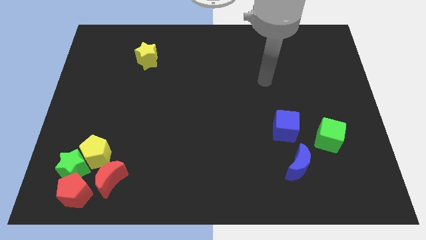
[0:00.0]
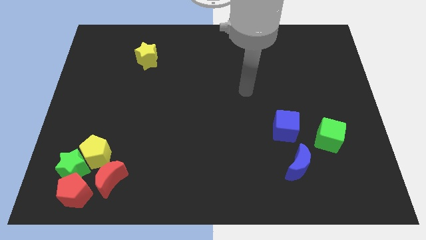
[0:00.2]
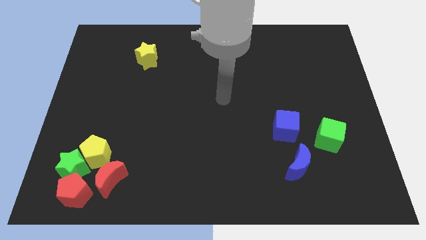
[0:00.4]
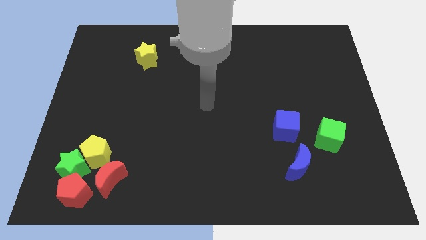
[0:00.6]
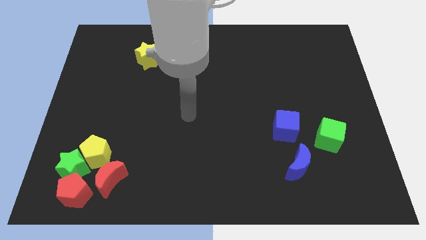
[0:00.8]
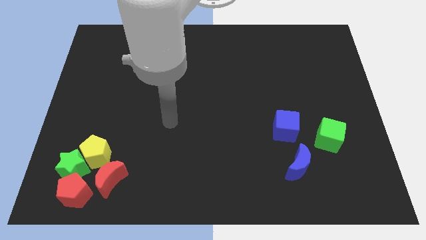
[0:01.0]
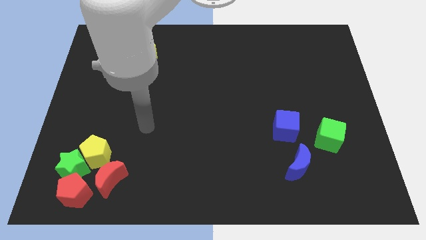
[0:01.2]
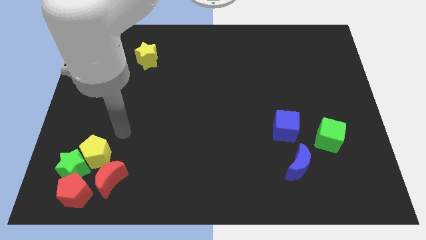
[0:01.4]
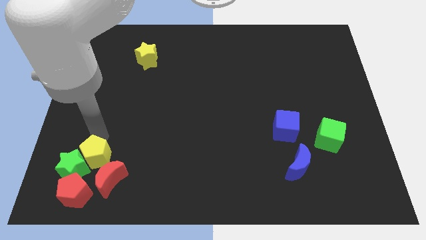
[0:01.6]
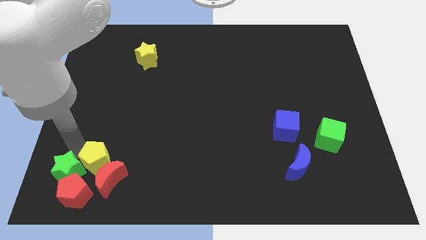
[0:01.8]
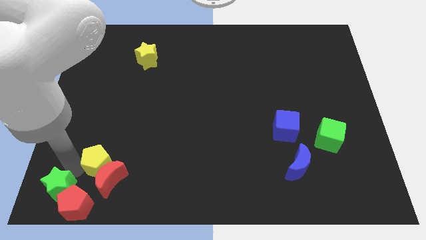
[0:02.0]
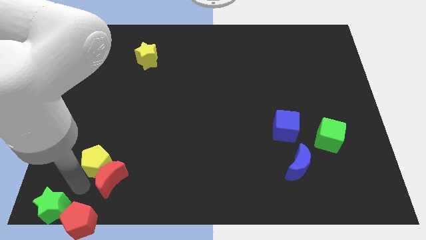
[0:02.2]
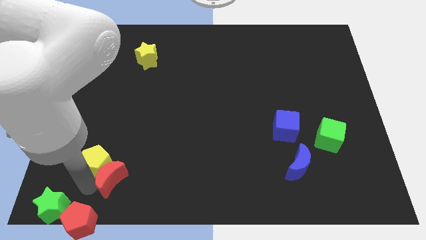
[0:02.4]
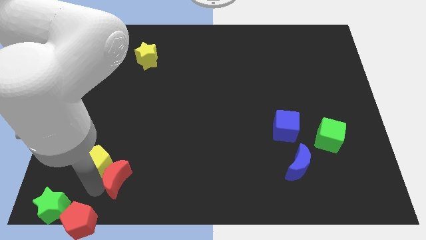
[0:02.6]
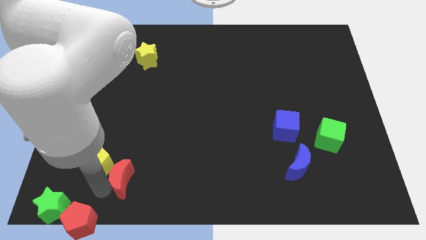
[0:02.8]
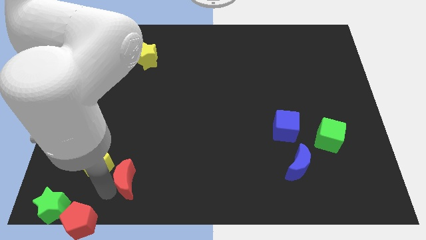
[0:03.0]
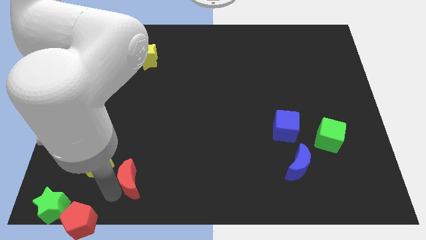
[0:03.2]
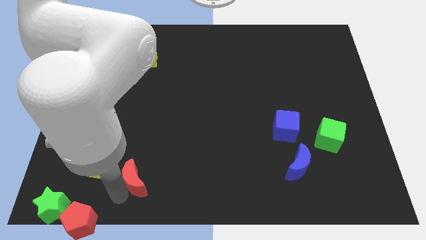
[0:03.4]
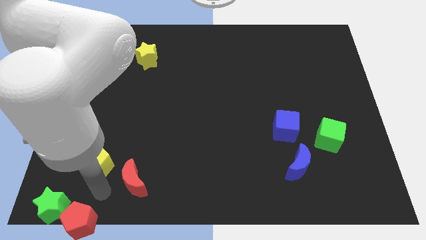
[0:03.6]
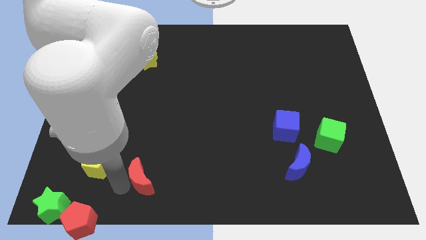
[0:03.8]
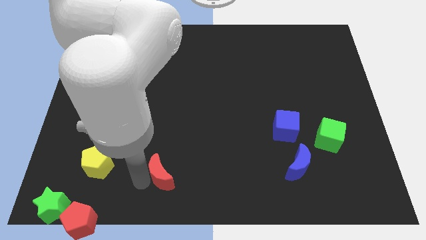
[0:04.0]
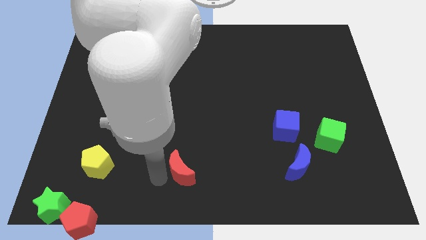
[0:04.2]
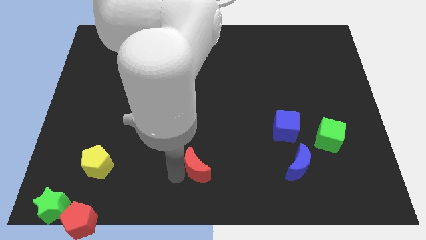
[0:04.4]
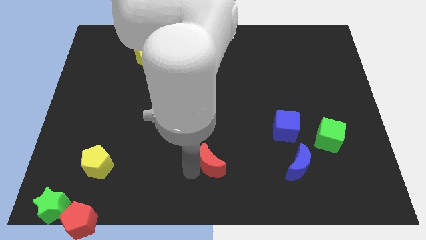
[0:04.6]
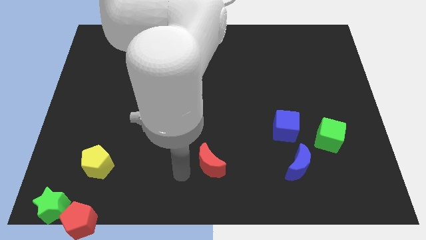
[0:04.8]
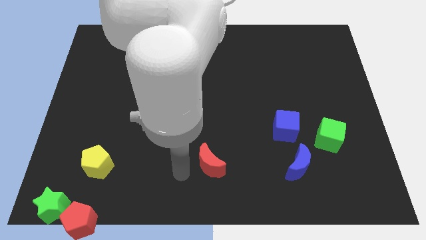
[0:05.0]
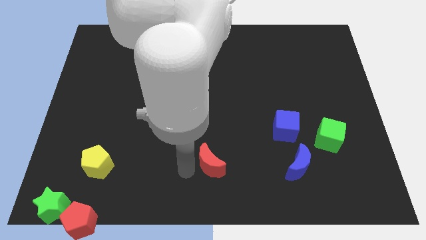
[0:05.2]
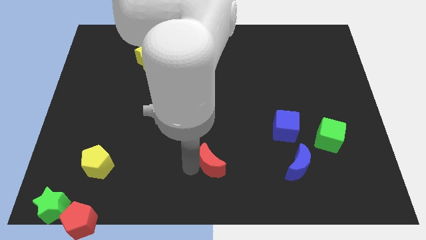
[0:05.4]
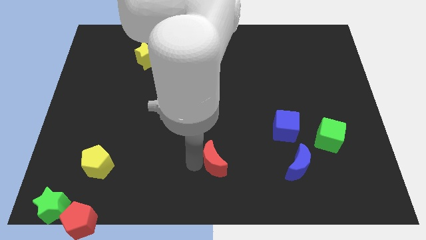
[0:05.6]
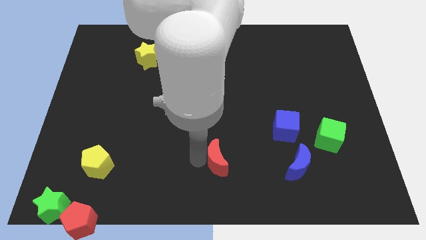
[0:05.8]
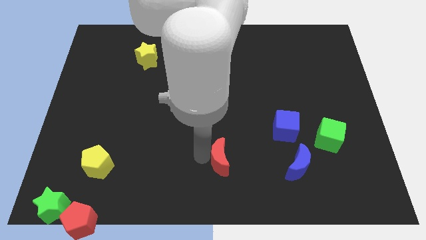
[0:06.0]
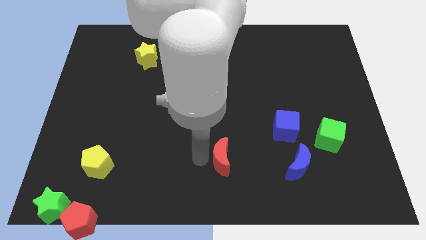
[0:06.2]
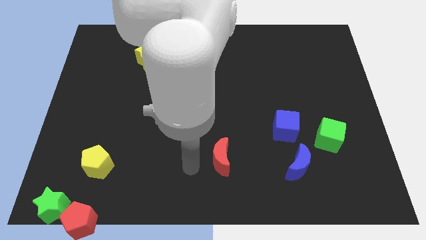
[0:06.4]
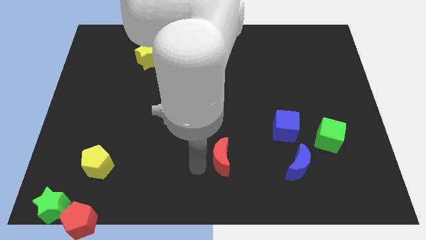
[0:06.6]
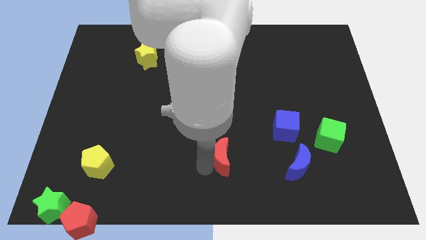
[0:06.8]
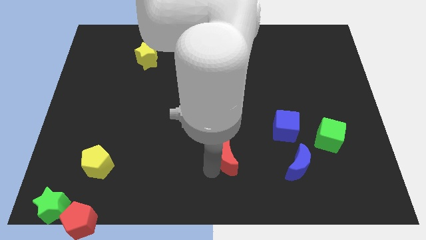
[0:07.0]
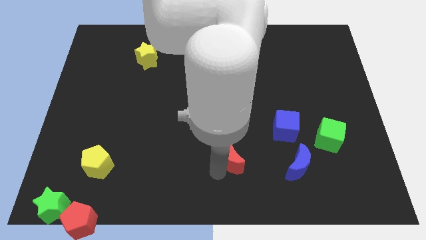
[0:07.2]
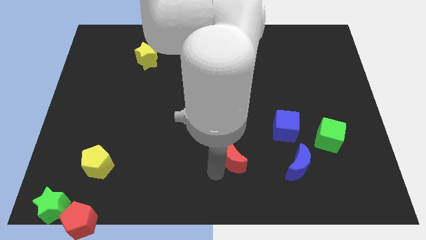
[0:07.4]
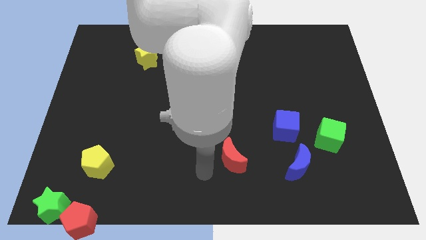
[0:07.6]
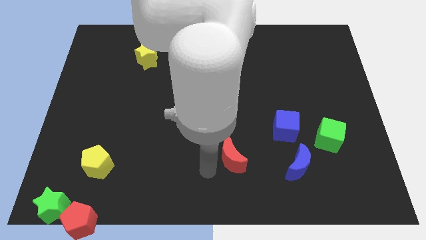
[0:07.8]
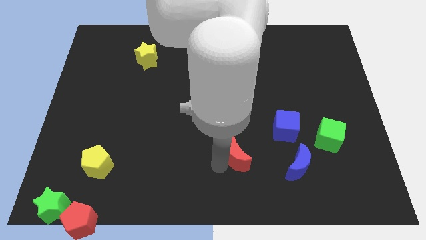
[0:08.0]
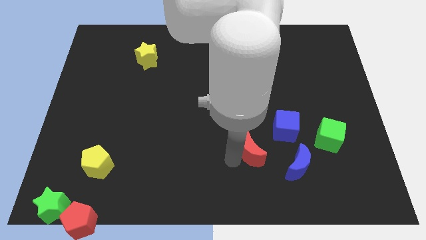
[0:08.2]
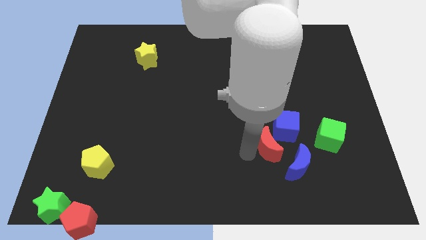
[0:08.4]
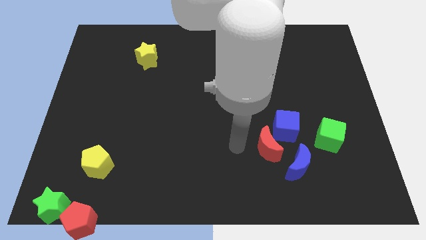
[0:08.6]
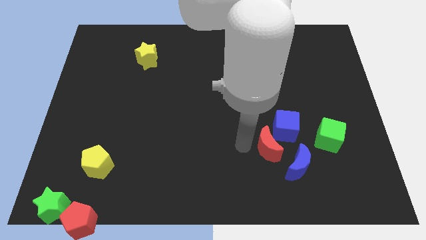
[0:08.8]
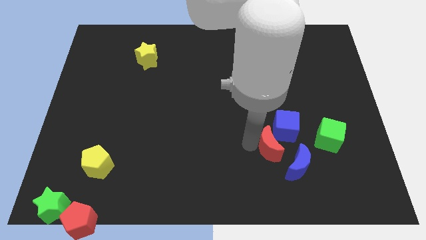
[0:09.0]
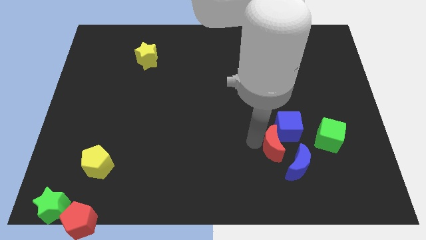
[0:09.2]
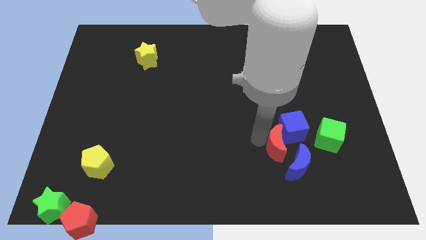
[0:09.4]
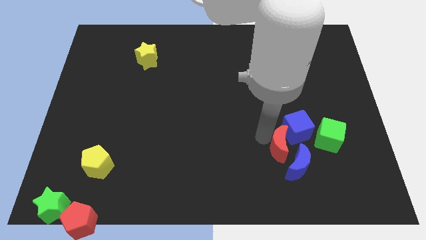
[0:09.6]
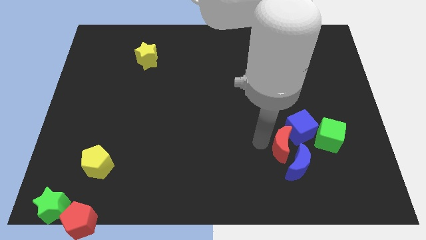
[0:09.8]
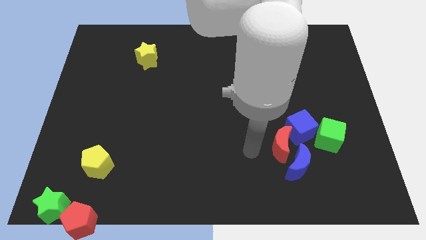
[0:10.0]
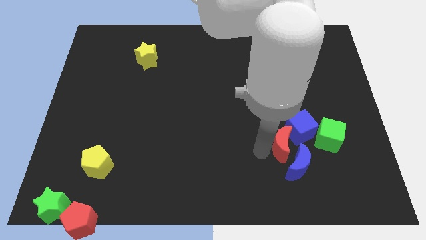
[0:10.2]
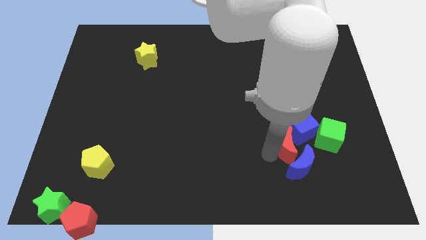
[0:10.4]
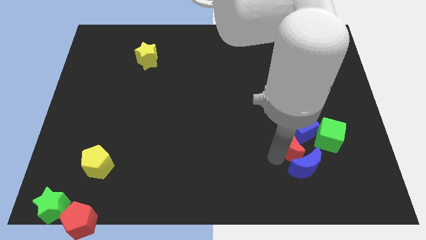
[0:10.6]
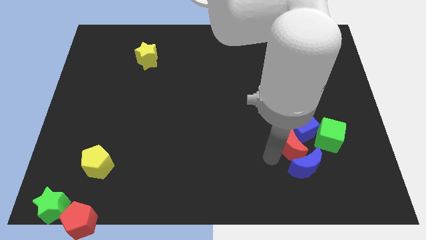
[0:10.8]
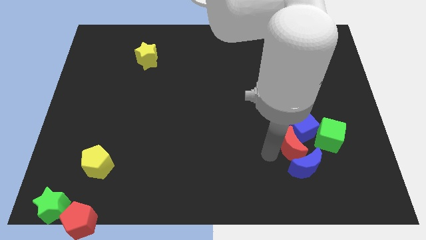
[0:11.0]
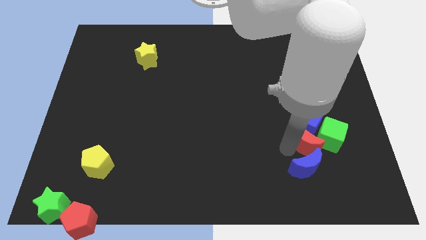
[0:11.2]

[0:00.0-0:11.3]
put the red moon to the green cube

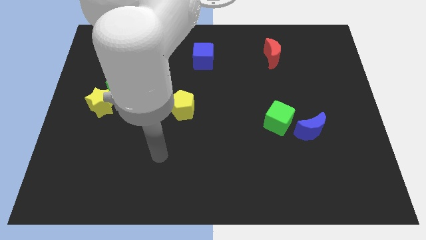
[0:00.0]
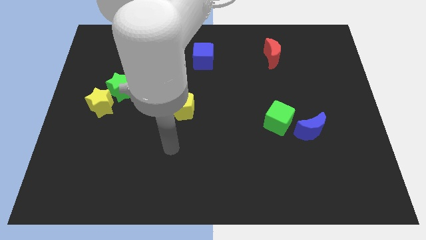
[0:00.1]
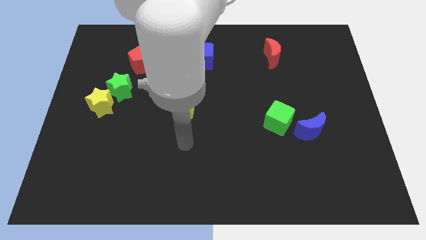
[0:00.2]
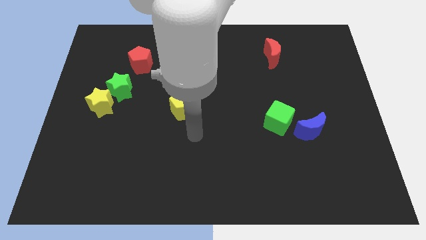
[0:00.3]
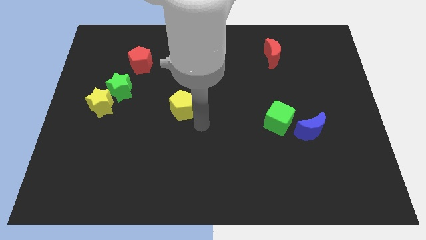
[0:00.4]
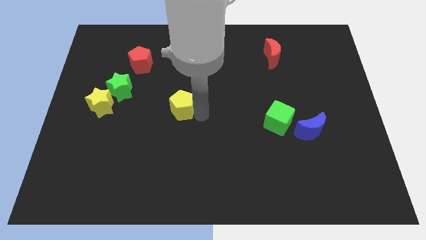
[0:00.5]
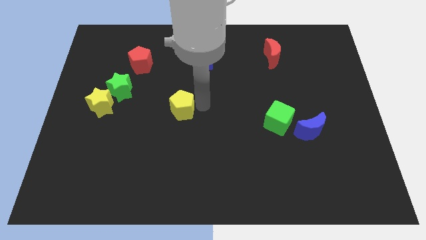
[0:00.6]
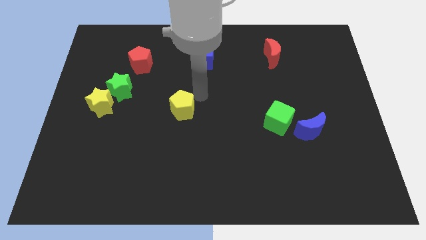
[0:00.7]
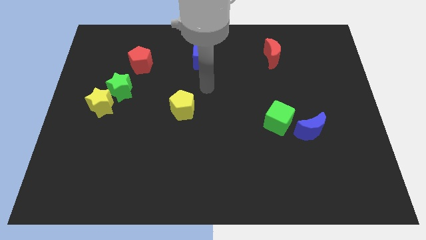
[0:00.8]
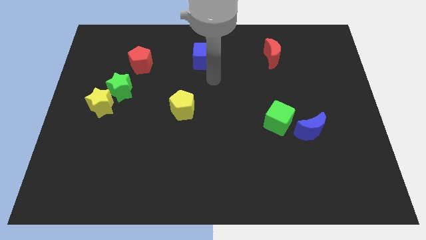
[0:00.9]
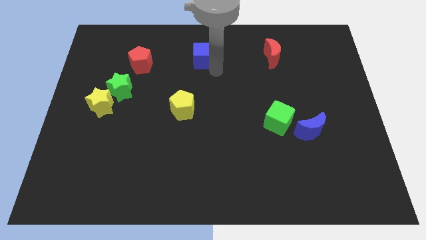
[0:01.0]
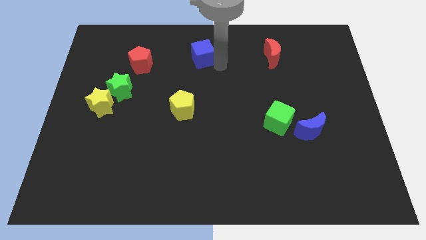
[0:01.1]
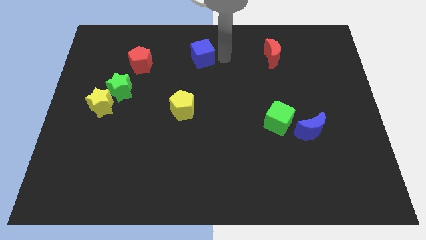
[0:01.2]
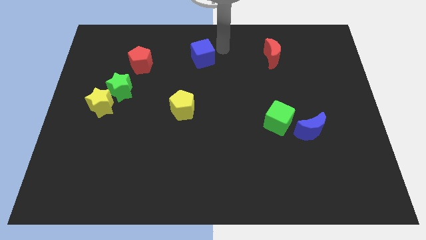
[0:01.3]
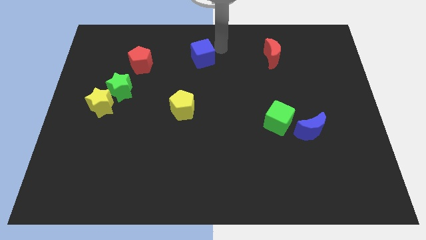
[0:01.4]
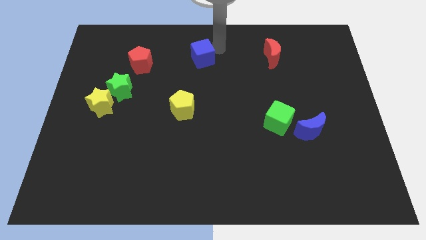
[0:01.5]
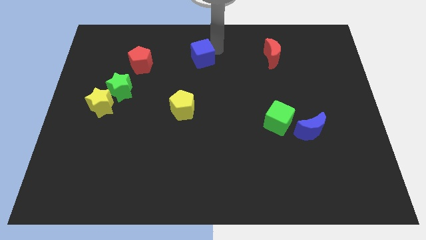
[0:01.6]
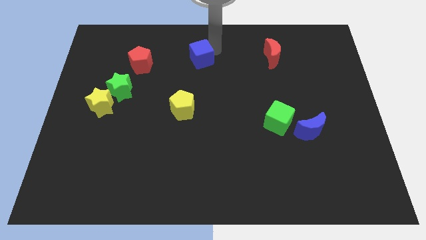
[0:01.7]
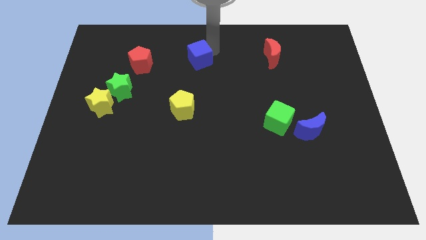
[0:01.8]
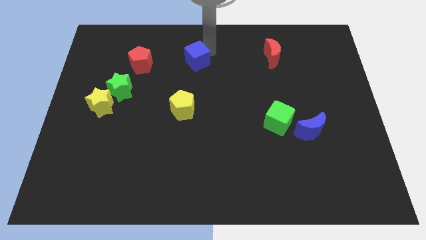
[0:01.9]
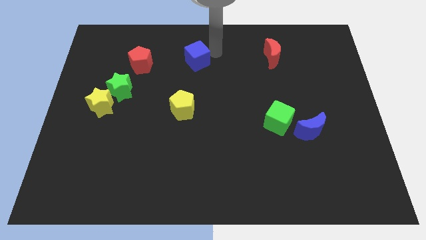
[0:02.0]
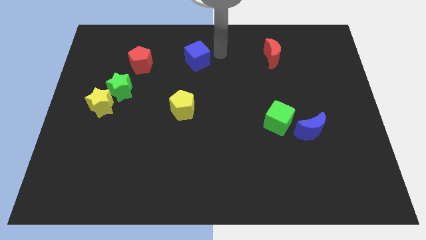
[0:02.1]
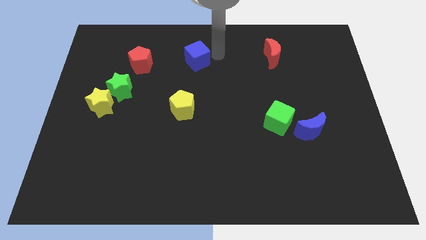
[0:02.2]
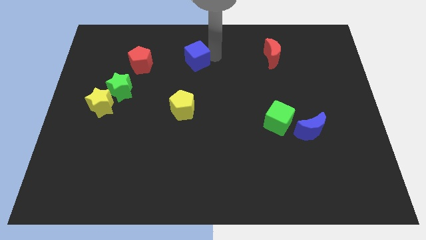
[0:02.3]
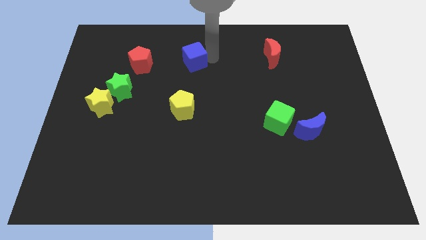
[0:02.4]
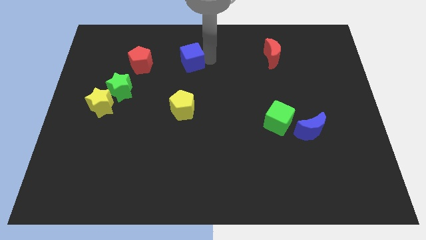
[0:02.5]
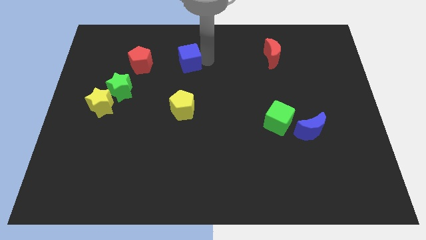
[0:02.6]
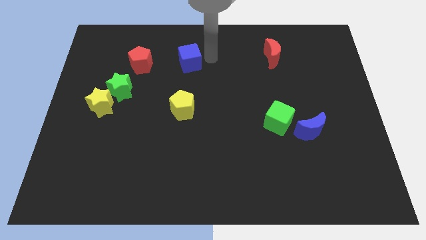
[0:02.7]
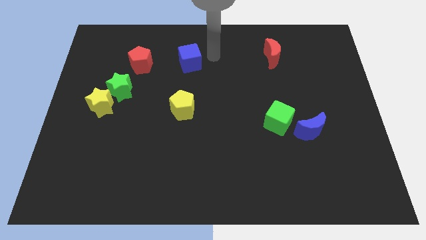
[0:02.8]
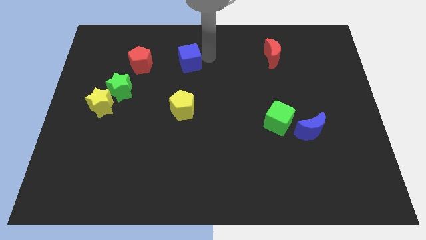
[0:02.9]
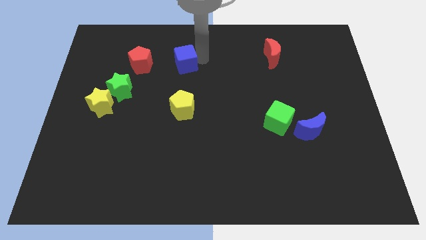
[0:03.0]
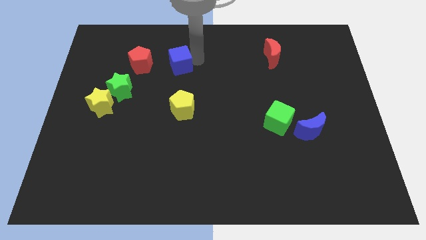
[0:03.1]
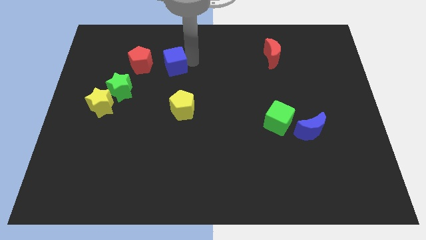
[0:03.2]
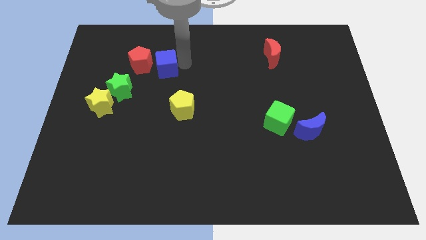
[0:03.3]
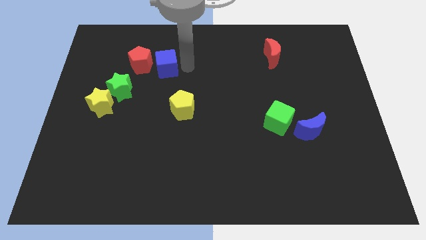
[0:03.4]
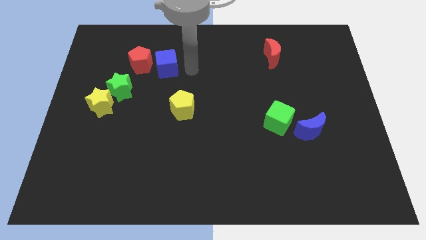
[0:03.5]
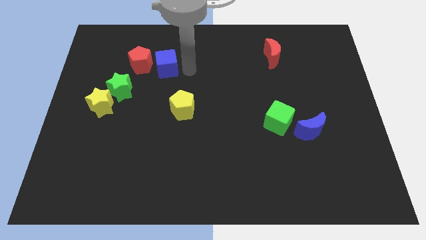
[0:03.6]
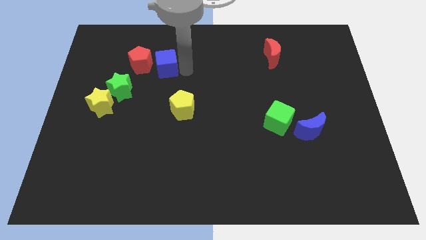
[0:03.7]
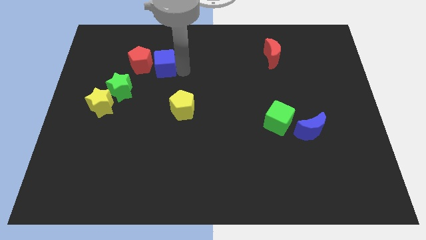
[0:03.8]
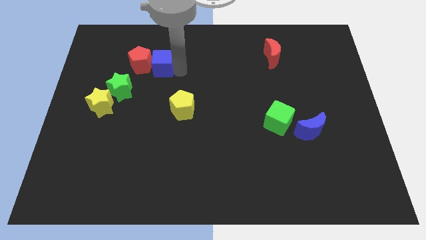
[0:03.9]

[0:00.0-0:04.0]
put the blue cube close to the red pentagon
